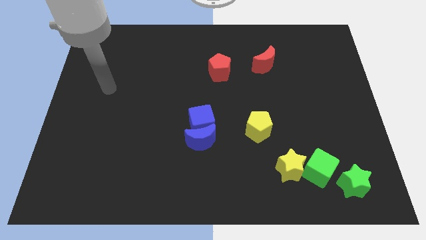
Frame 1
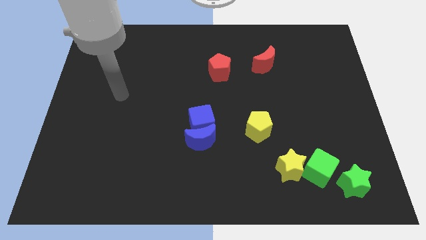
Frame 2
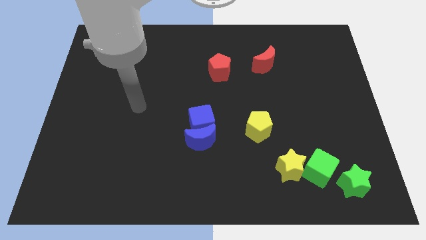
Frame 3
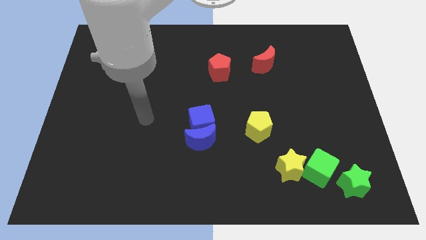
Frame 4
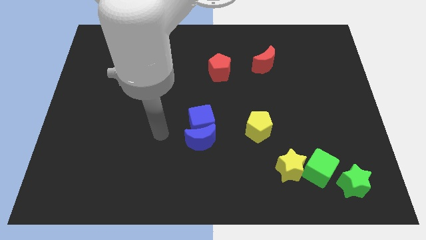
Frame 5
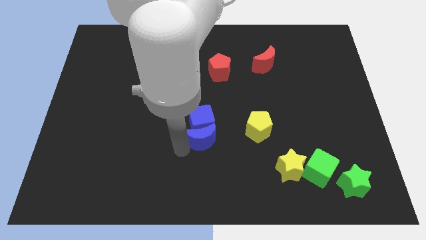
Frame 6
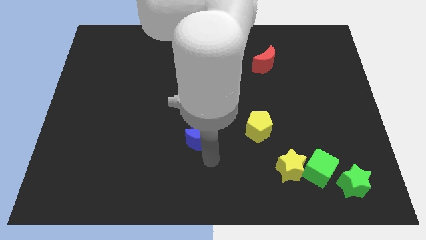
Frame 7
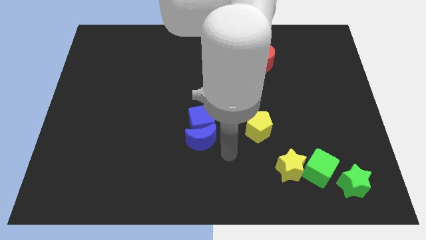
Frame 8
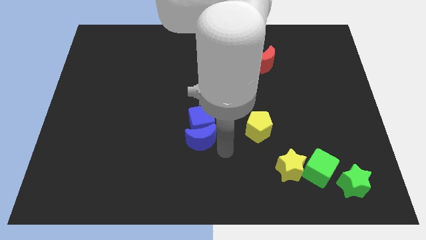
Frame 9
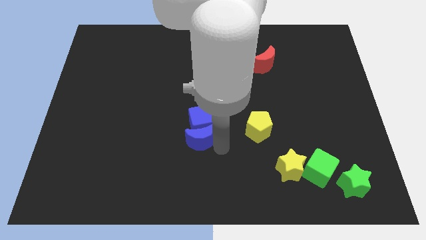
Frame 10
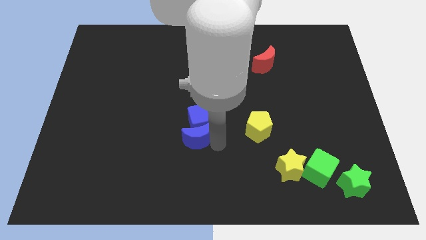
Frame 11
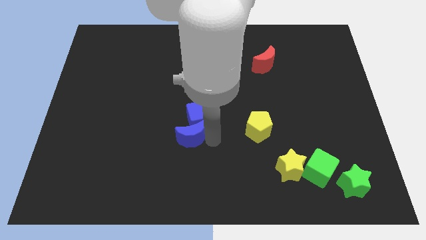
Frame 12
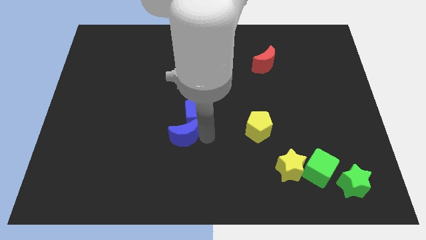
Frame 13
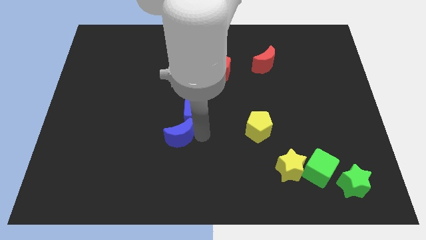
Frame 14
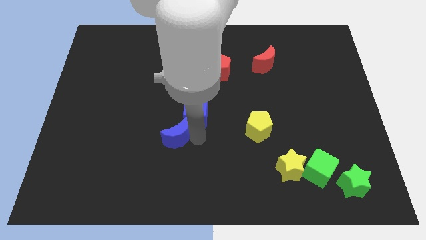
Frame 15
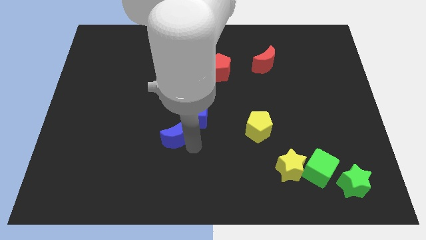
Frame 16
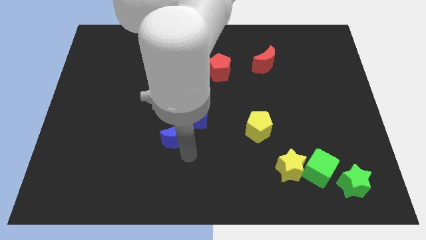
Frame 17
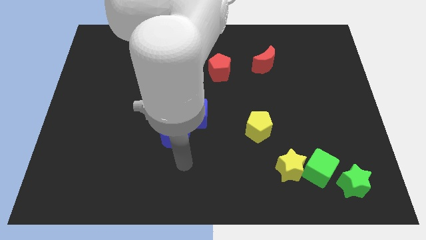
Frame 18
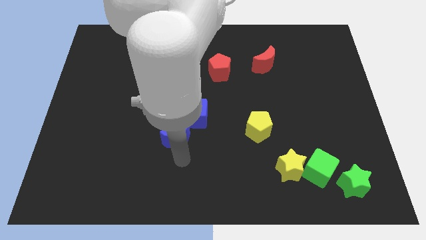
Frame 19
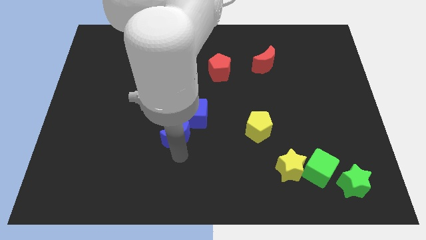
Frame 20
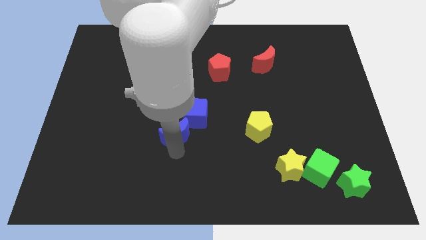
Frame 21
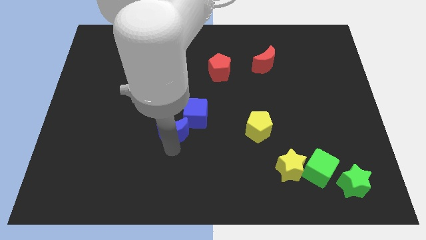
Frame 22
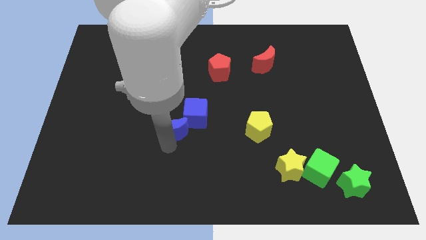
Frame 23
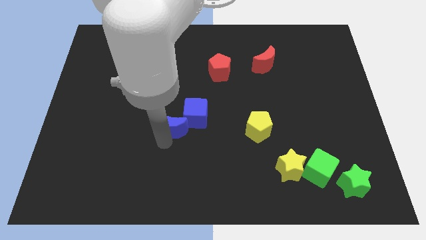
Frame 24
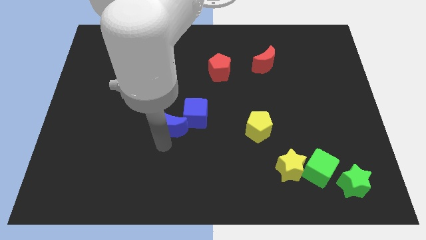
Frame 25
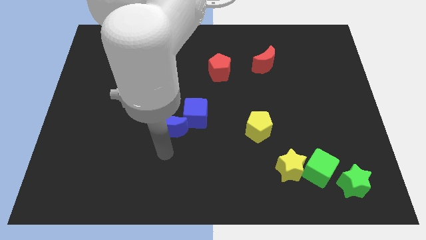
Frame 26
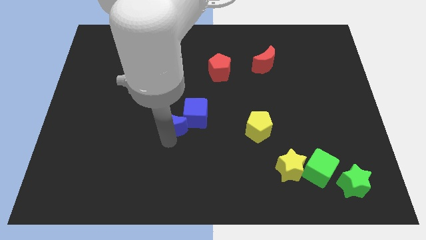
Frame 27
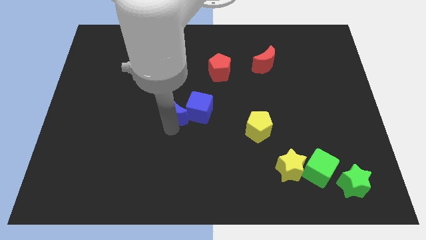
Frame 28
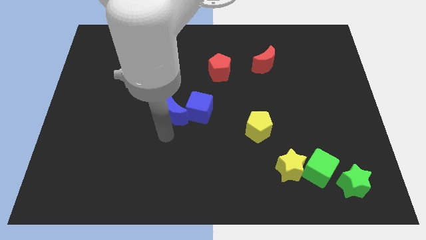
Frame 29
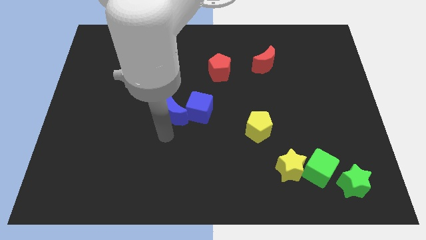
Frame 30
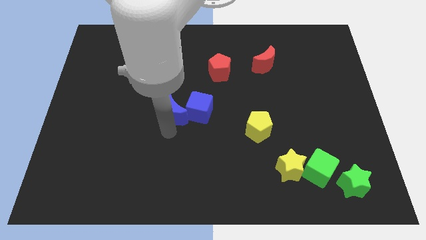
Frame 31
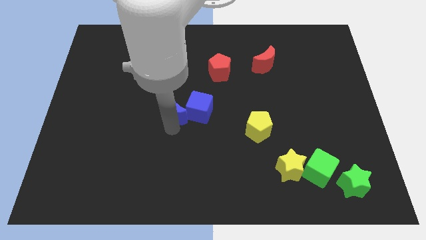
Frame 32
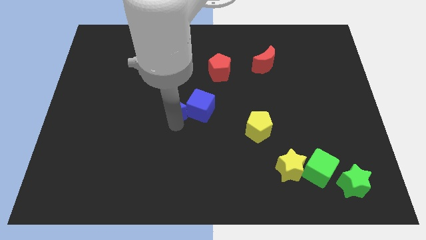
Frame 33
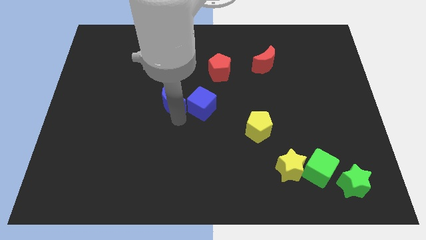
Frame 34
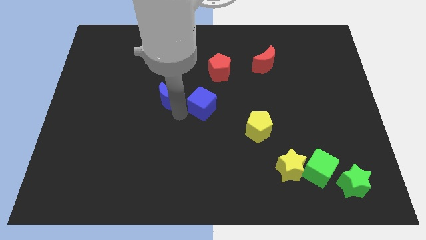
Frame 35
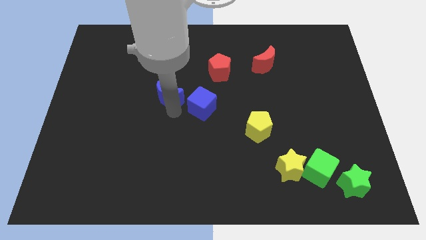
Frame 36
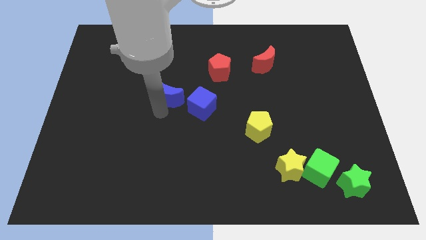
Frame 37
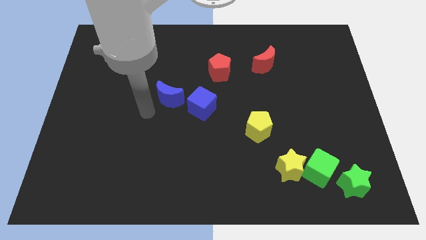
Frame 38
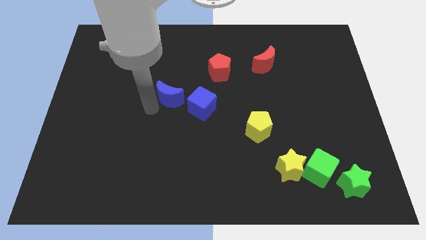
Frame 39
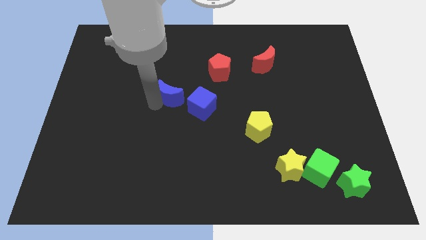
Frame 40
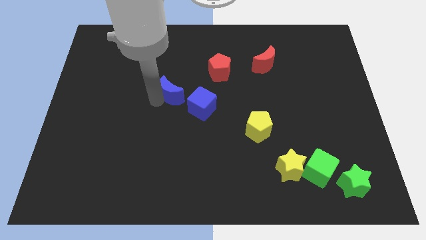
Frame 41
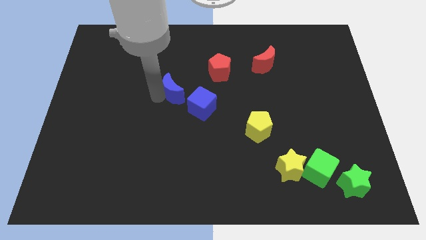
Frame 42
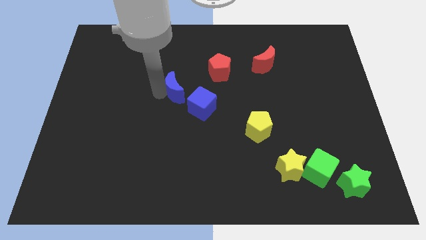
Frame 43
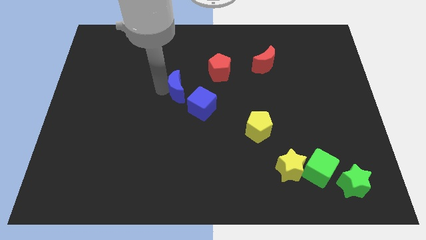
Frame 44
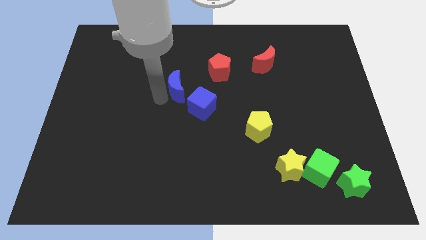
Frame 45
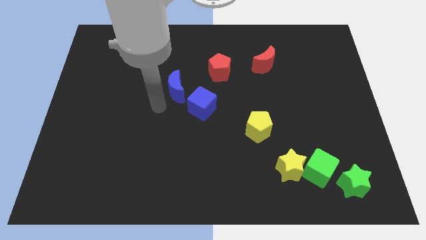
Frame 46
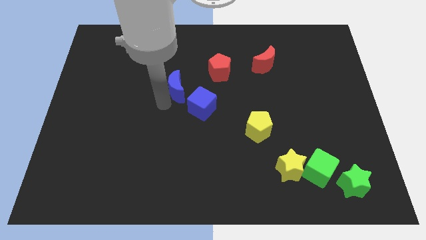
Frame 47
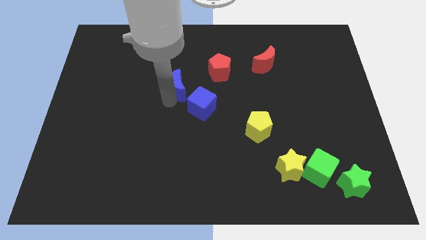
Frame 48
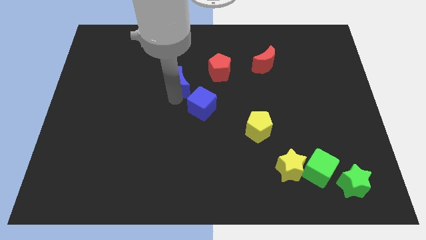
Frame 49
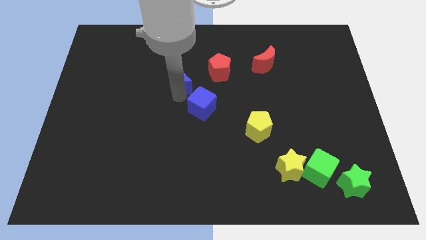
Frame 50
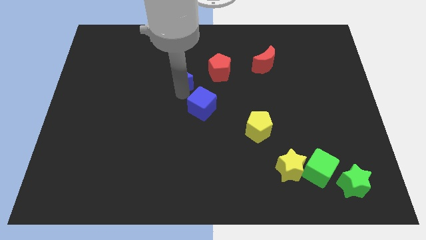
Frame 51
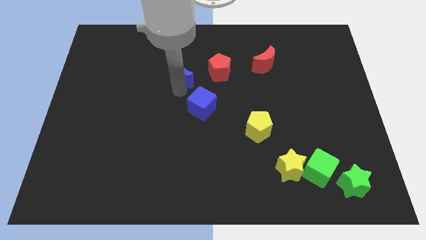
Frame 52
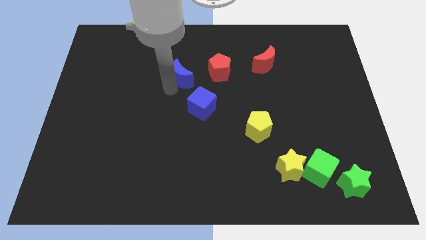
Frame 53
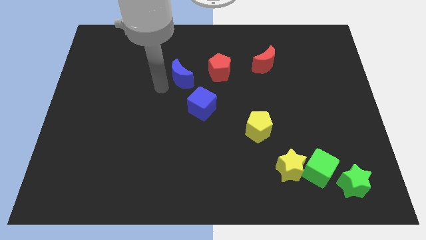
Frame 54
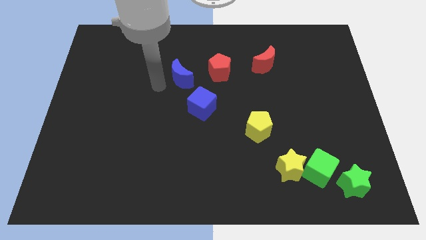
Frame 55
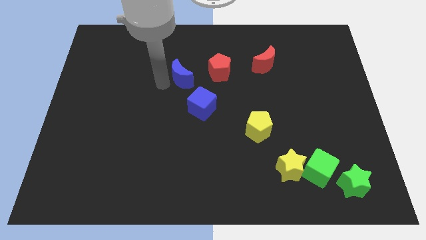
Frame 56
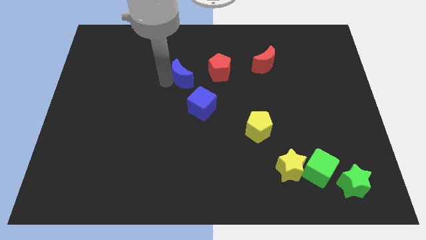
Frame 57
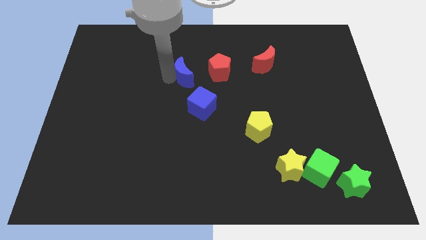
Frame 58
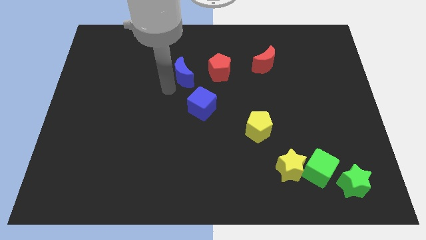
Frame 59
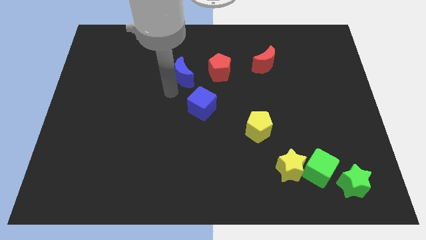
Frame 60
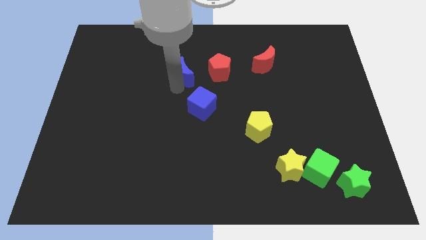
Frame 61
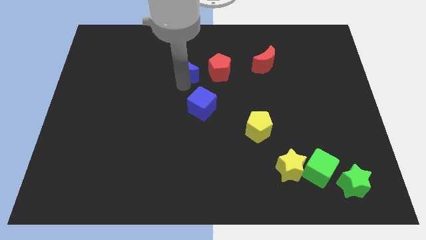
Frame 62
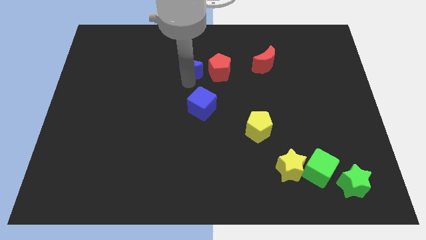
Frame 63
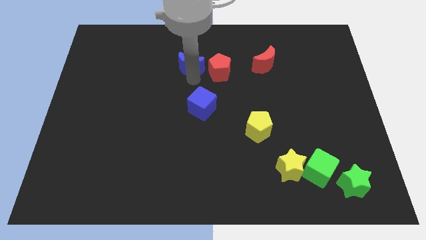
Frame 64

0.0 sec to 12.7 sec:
put the blue moon to the top left side of the red pentagon
